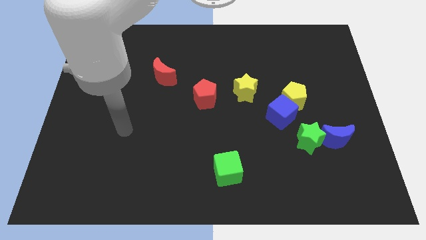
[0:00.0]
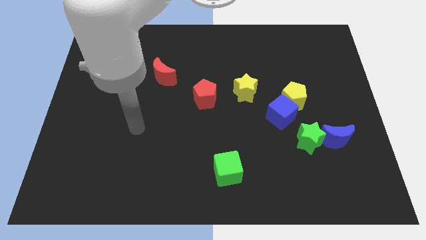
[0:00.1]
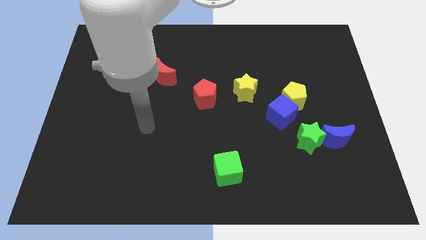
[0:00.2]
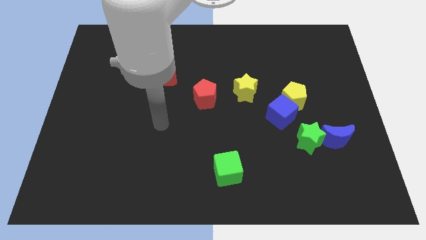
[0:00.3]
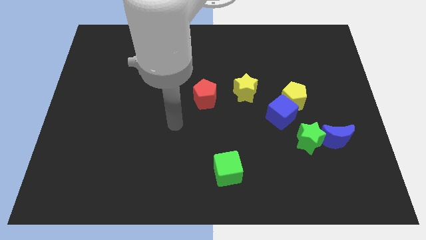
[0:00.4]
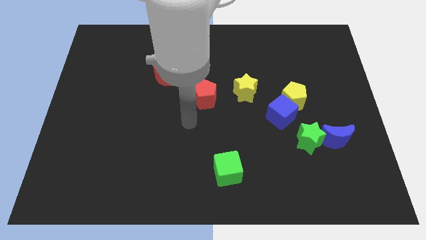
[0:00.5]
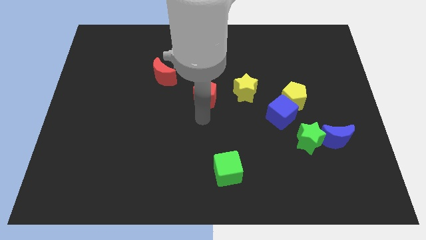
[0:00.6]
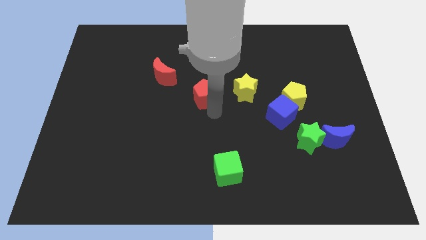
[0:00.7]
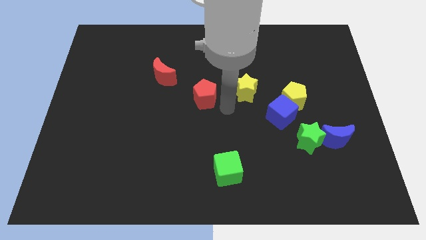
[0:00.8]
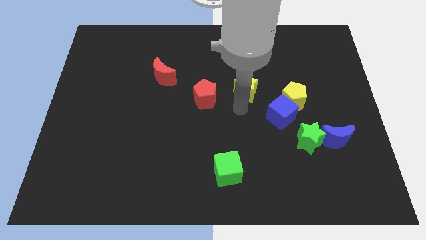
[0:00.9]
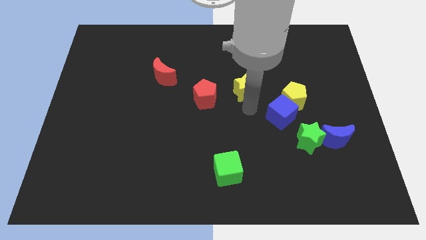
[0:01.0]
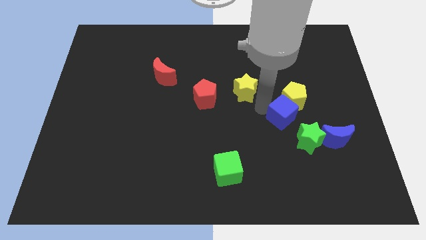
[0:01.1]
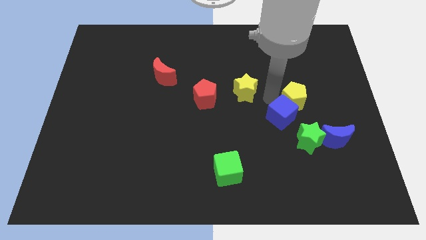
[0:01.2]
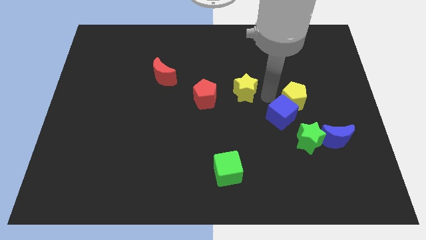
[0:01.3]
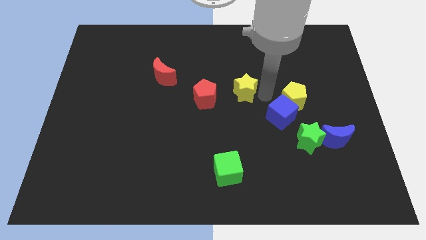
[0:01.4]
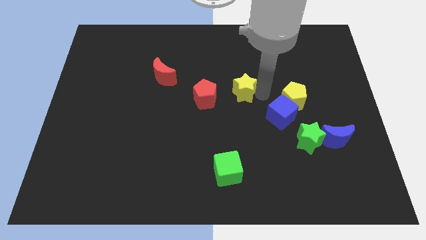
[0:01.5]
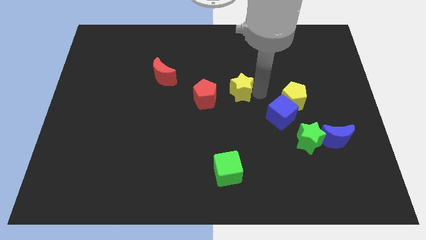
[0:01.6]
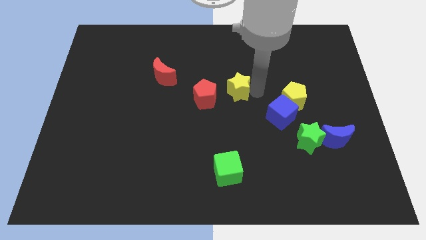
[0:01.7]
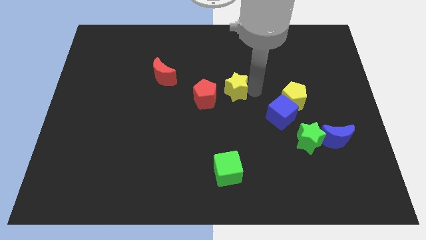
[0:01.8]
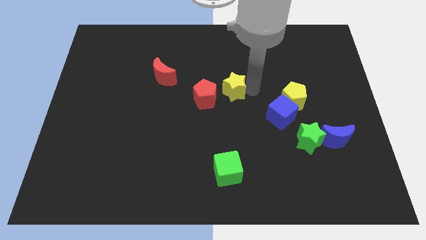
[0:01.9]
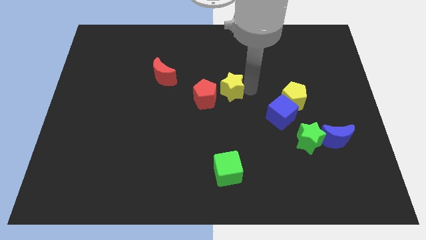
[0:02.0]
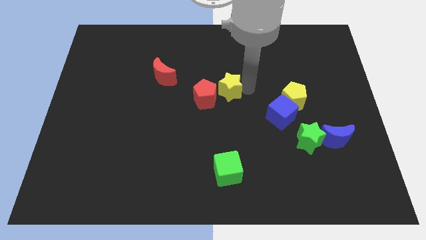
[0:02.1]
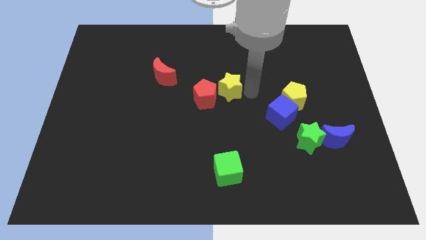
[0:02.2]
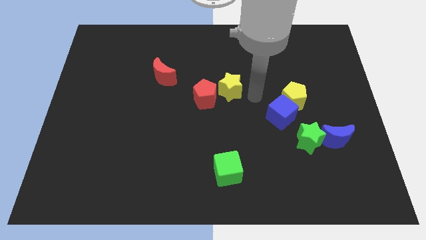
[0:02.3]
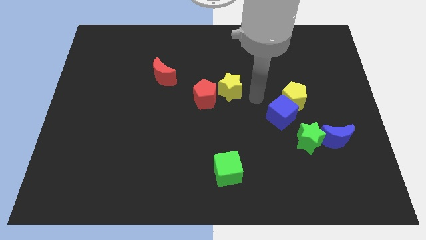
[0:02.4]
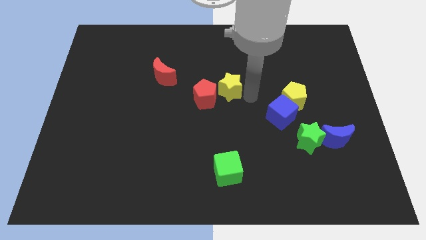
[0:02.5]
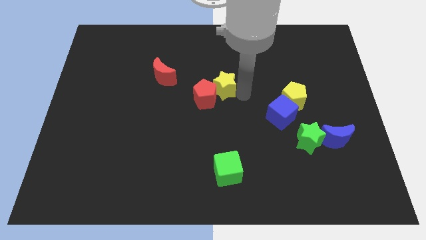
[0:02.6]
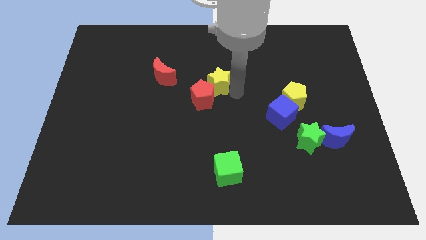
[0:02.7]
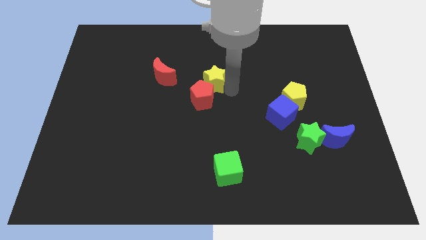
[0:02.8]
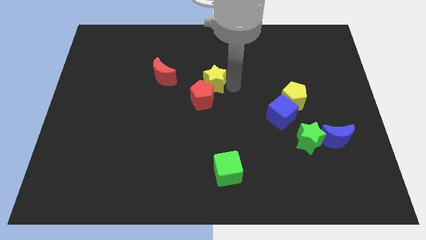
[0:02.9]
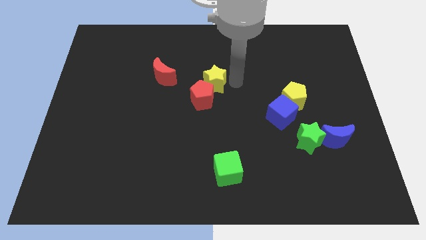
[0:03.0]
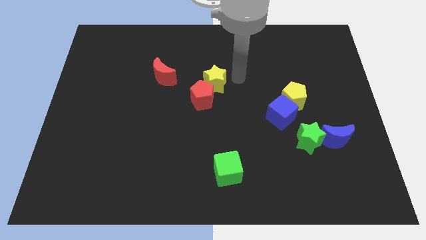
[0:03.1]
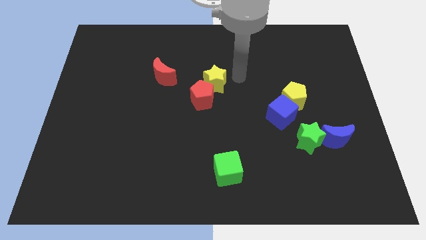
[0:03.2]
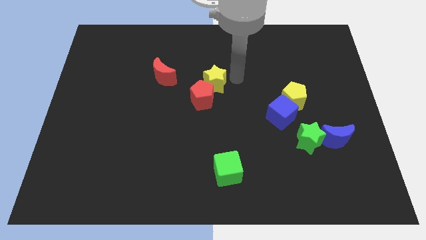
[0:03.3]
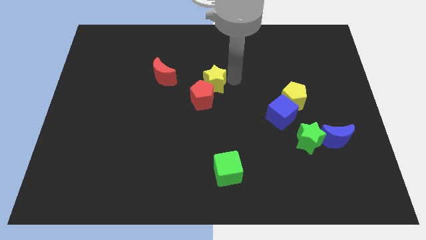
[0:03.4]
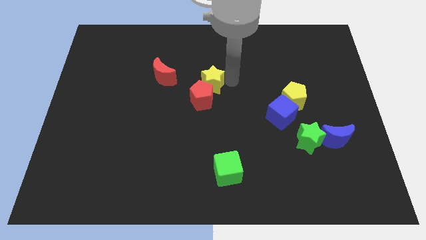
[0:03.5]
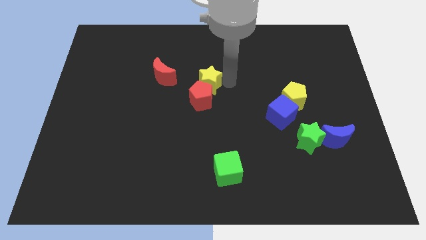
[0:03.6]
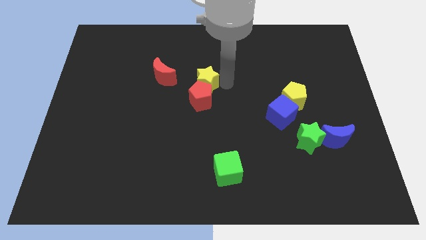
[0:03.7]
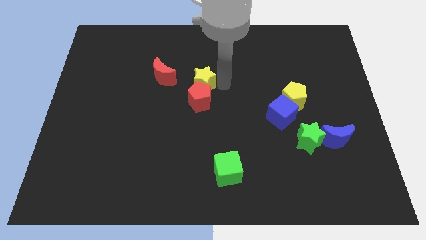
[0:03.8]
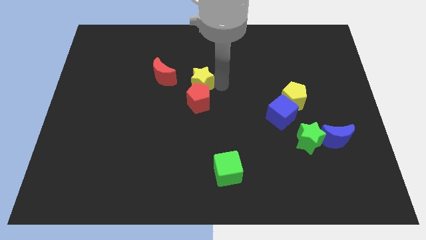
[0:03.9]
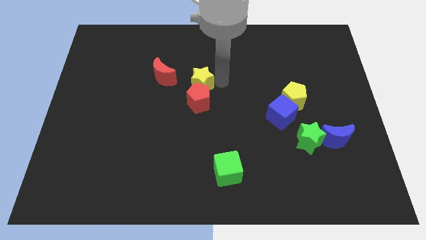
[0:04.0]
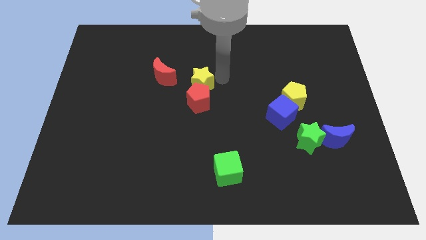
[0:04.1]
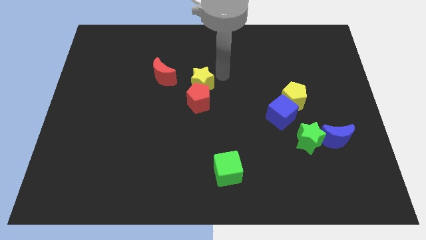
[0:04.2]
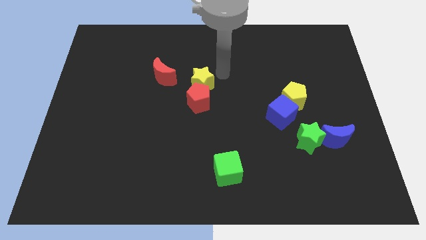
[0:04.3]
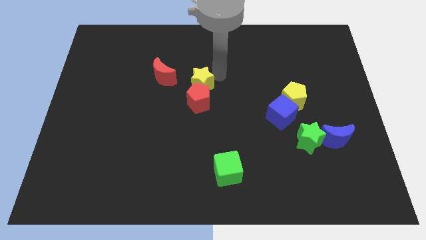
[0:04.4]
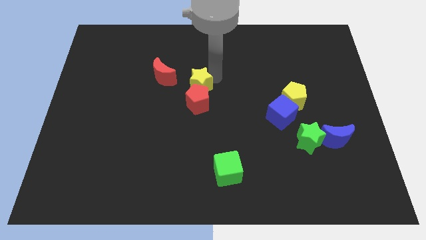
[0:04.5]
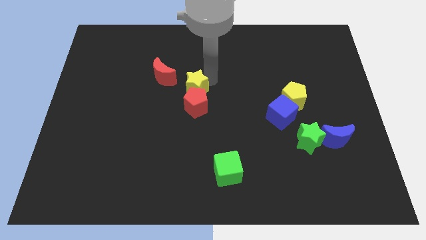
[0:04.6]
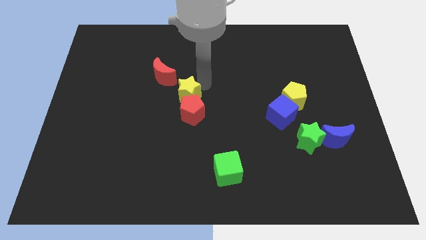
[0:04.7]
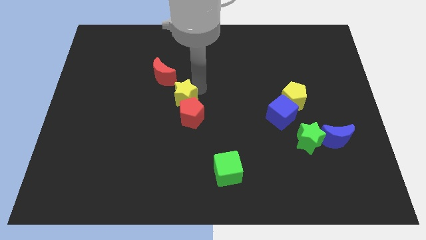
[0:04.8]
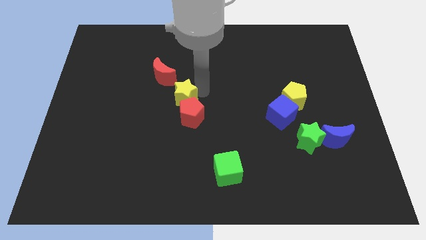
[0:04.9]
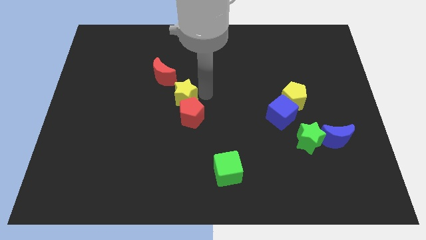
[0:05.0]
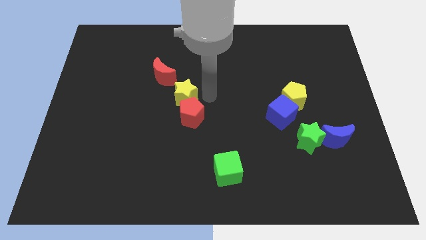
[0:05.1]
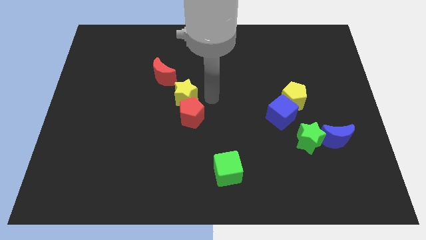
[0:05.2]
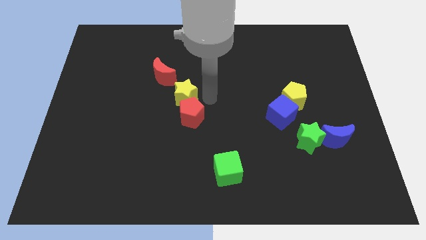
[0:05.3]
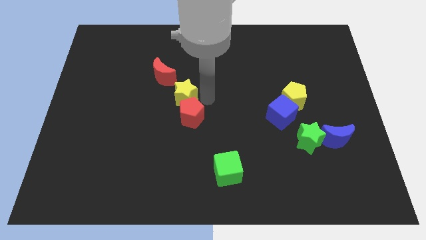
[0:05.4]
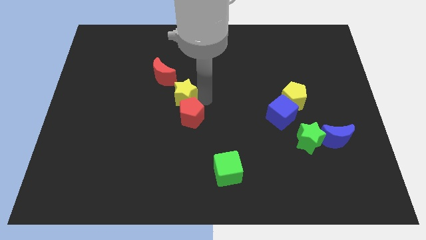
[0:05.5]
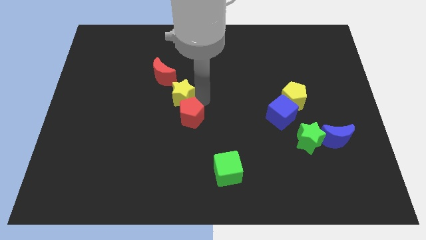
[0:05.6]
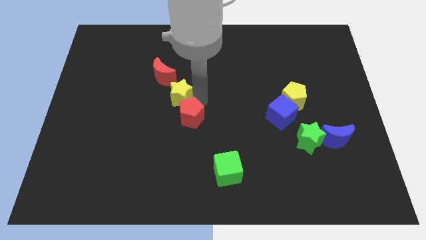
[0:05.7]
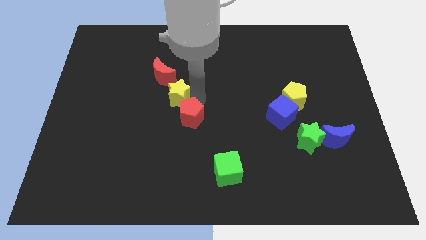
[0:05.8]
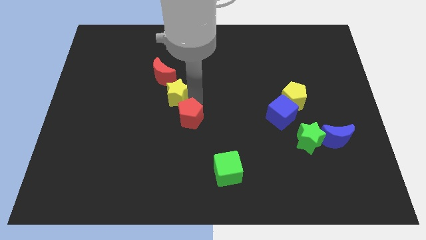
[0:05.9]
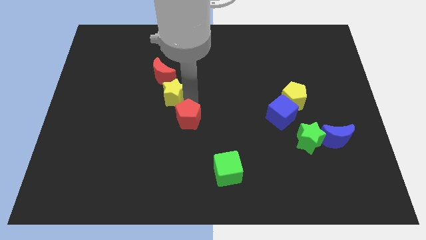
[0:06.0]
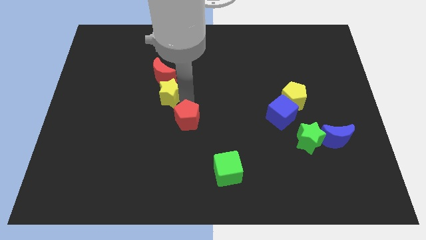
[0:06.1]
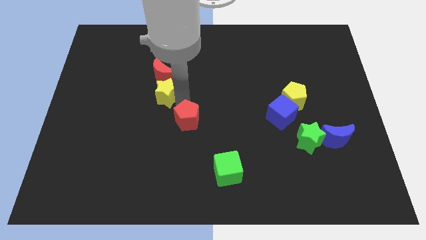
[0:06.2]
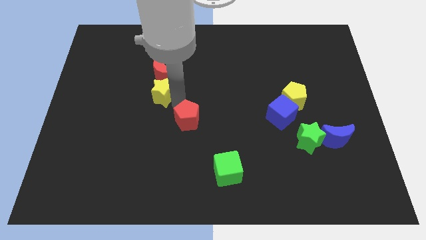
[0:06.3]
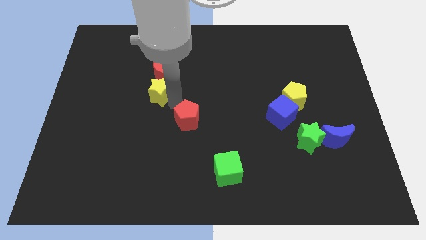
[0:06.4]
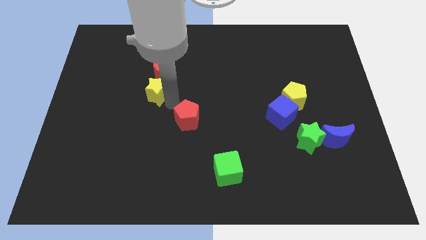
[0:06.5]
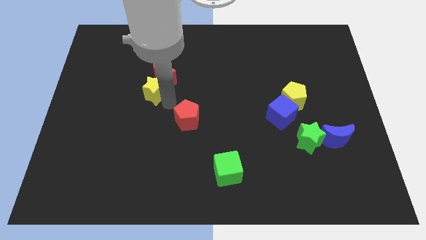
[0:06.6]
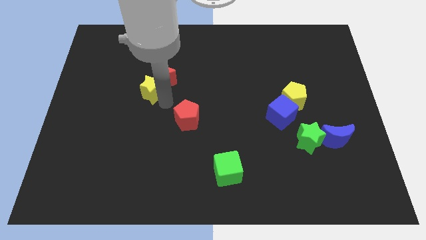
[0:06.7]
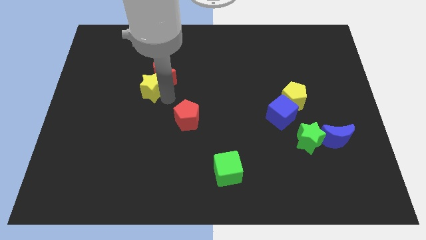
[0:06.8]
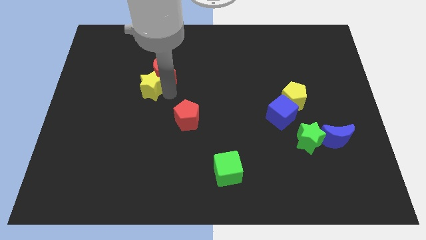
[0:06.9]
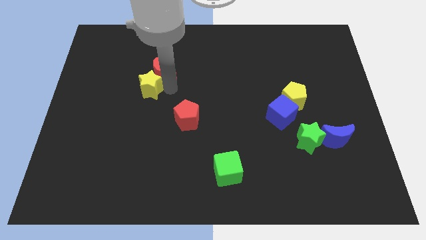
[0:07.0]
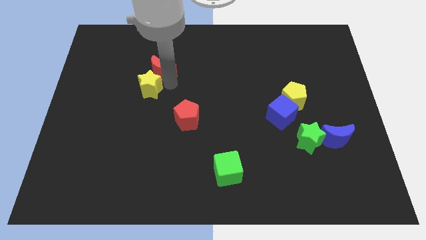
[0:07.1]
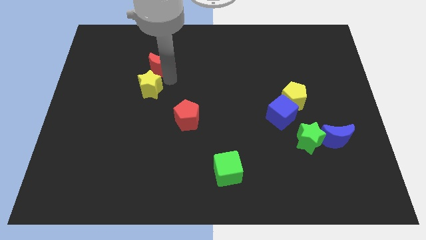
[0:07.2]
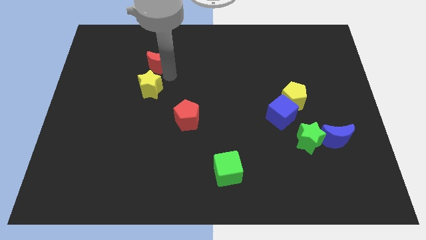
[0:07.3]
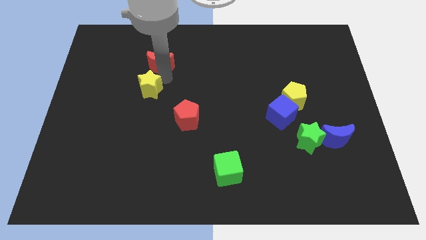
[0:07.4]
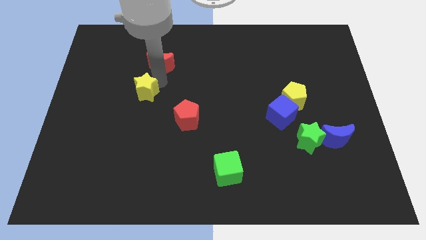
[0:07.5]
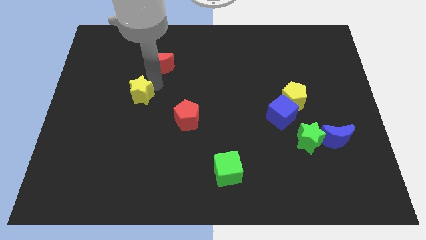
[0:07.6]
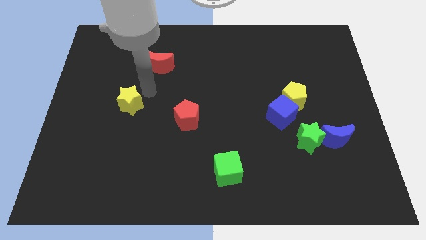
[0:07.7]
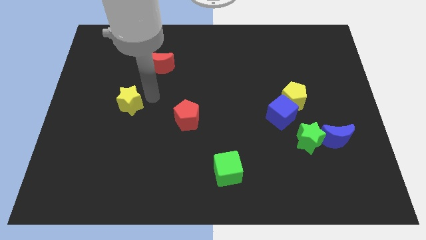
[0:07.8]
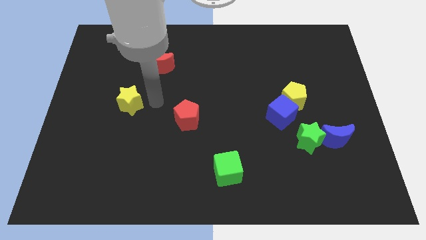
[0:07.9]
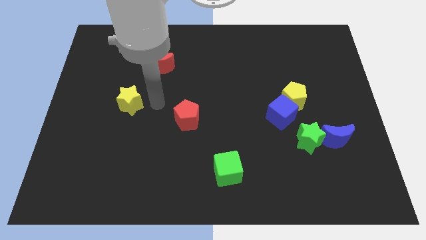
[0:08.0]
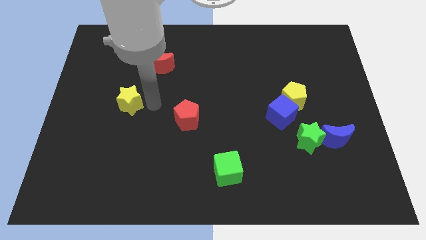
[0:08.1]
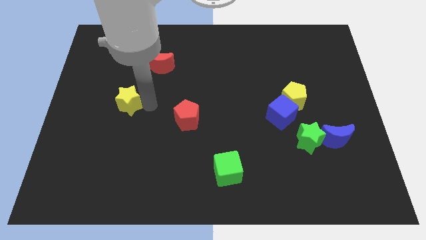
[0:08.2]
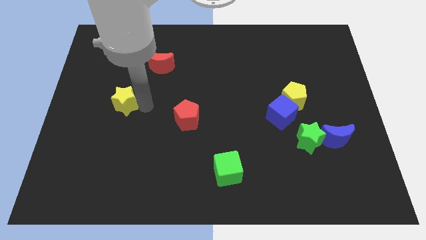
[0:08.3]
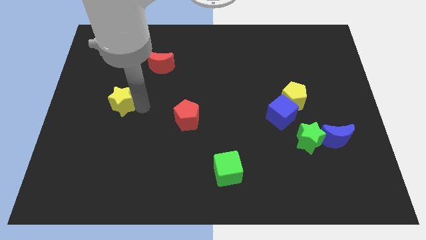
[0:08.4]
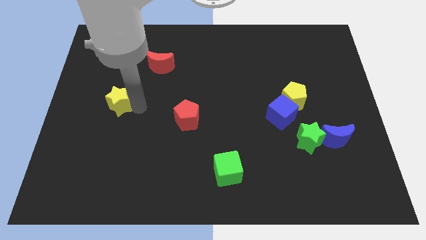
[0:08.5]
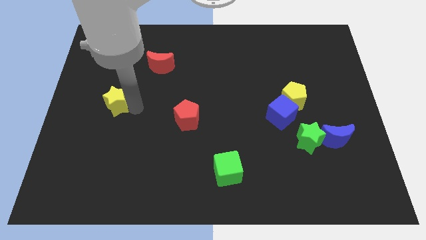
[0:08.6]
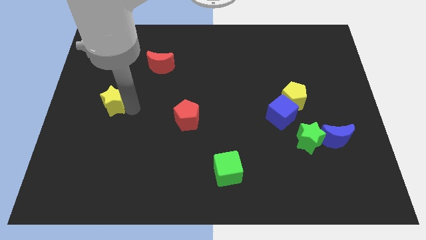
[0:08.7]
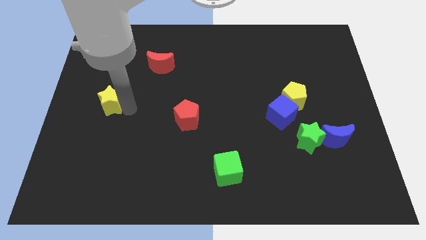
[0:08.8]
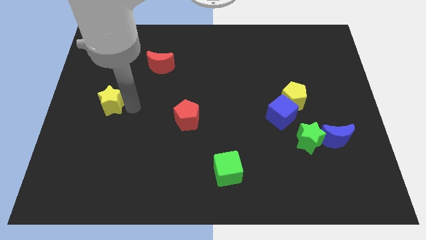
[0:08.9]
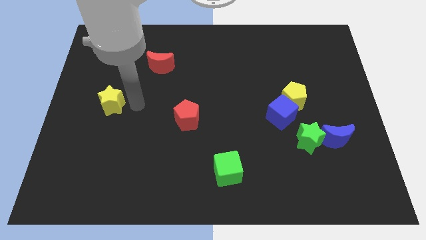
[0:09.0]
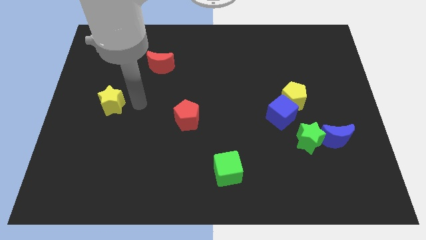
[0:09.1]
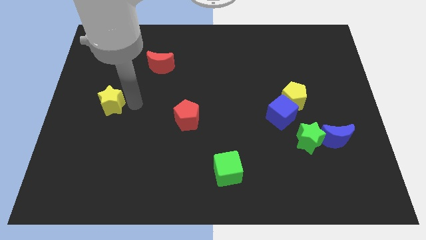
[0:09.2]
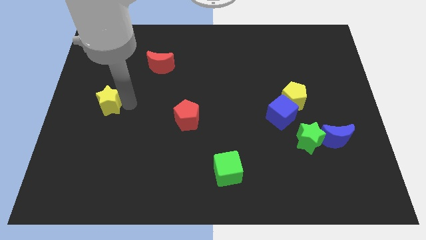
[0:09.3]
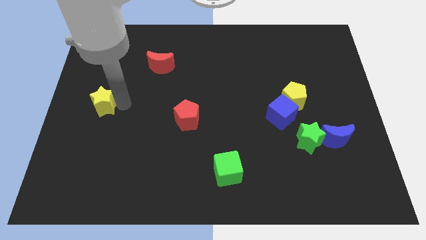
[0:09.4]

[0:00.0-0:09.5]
push the yellow star to the center left
